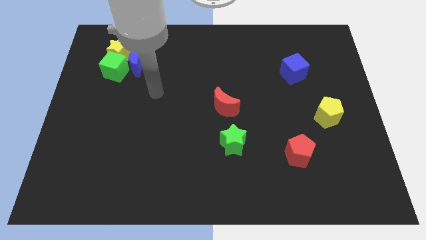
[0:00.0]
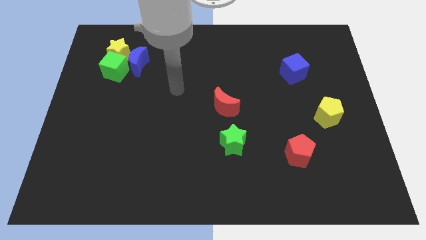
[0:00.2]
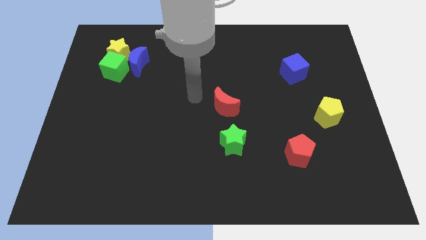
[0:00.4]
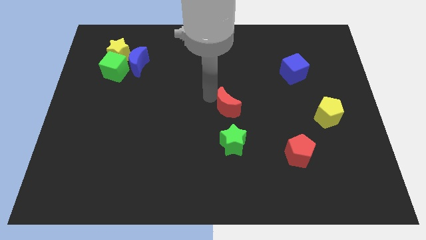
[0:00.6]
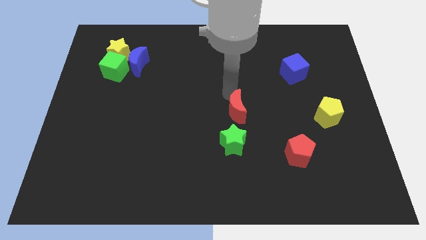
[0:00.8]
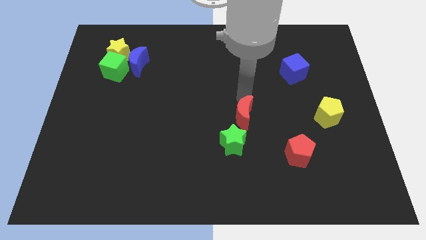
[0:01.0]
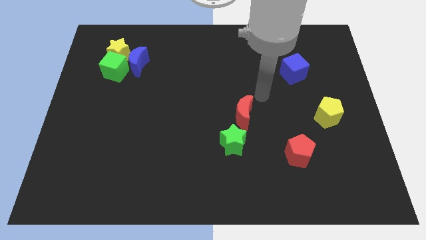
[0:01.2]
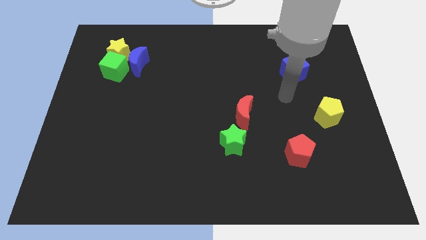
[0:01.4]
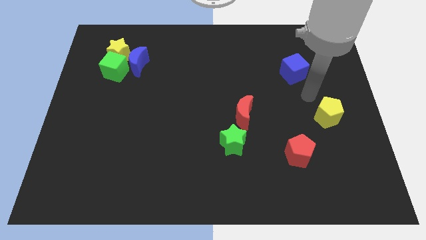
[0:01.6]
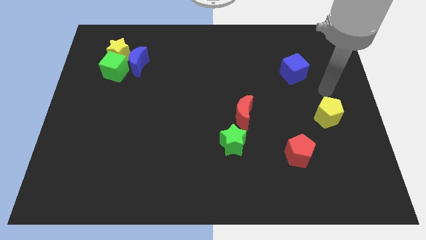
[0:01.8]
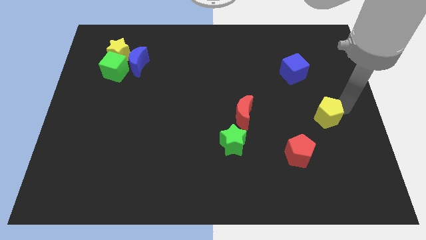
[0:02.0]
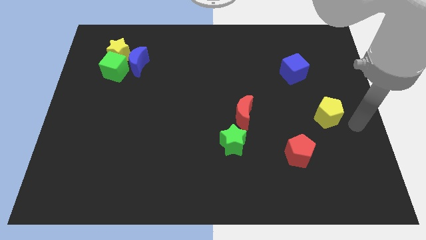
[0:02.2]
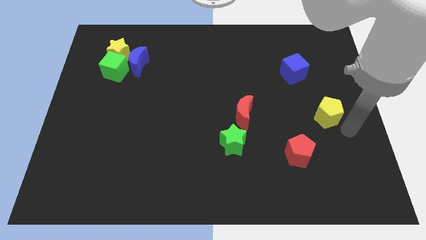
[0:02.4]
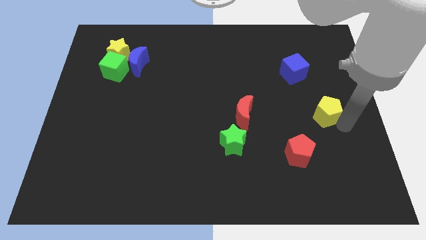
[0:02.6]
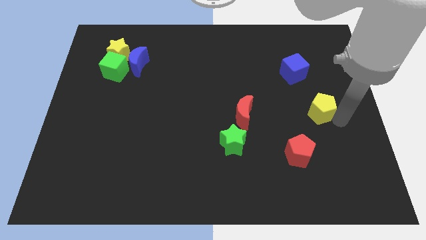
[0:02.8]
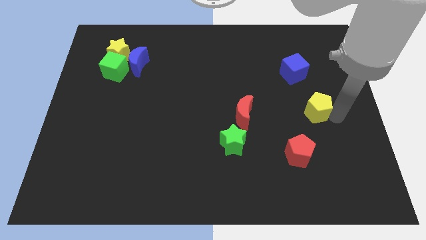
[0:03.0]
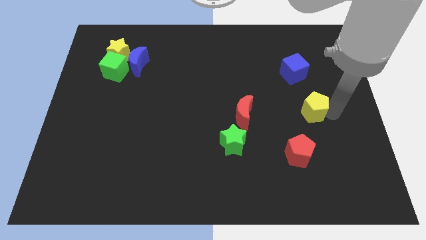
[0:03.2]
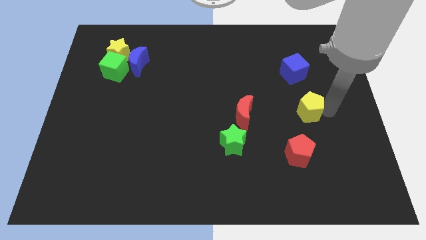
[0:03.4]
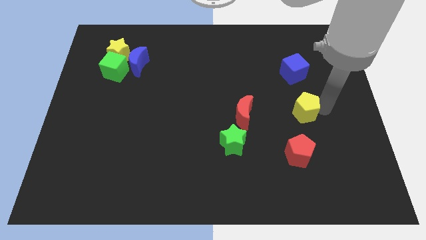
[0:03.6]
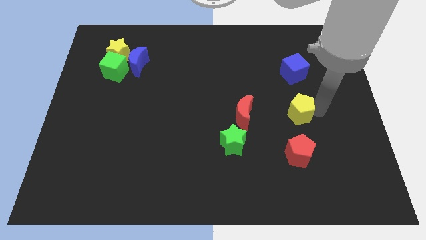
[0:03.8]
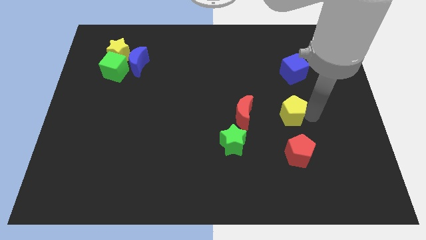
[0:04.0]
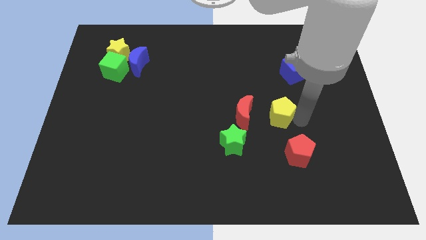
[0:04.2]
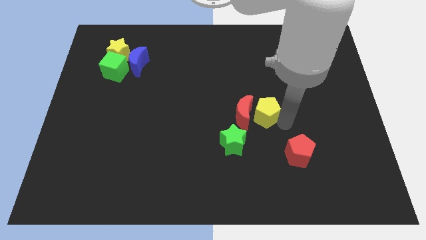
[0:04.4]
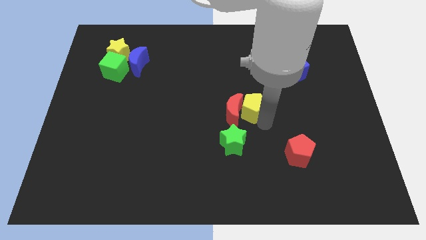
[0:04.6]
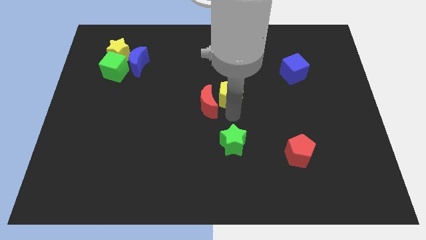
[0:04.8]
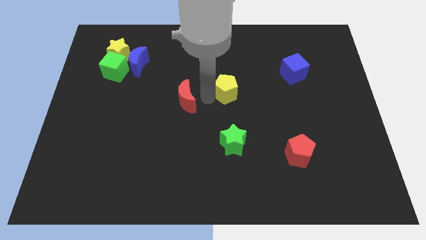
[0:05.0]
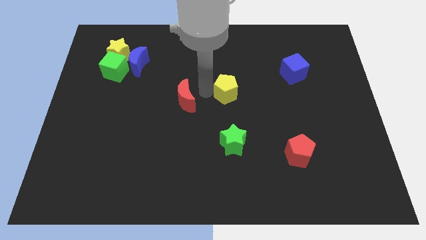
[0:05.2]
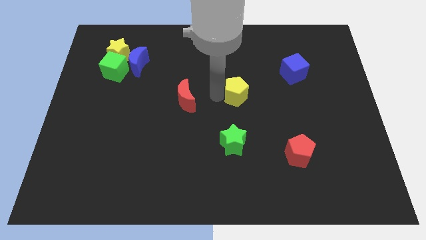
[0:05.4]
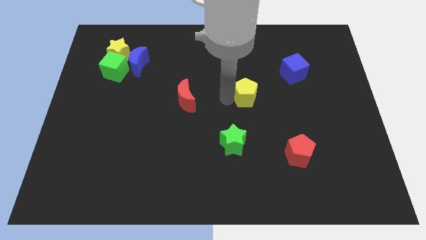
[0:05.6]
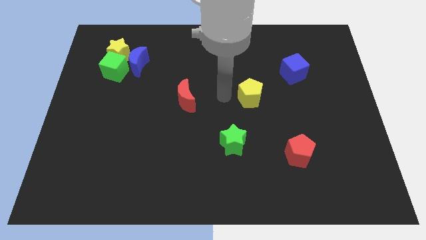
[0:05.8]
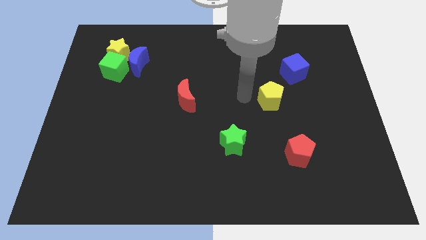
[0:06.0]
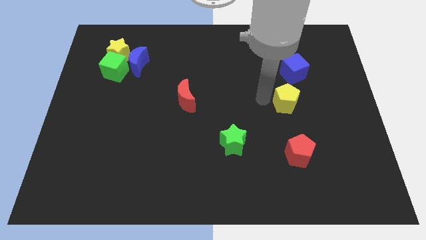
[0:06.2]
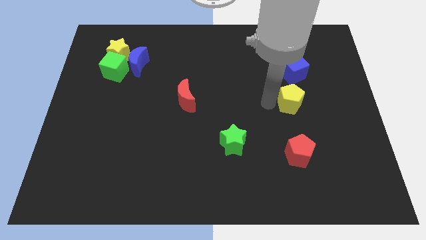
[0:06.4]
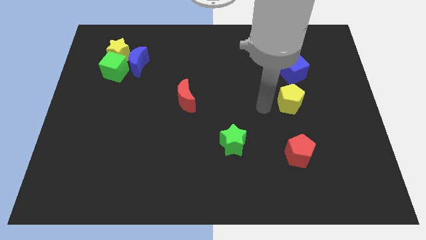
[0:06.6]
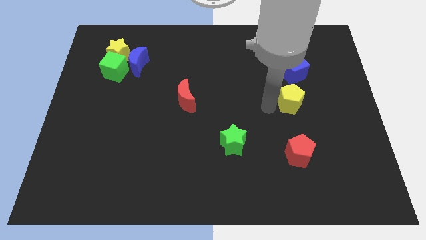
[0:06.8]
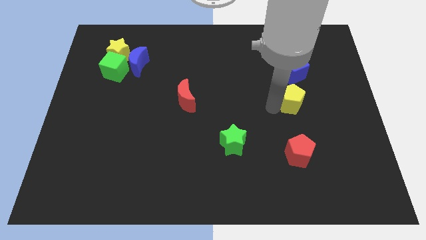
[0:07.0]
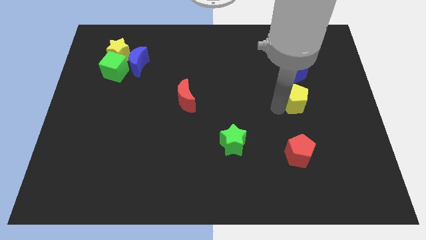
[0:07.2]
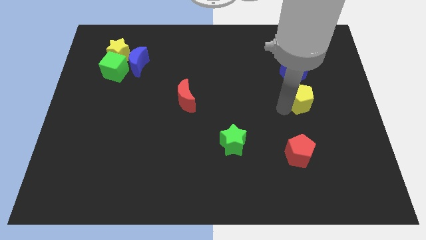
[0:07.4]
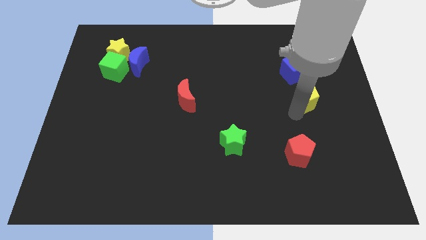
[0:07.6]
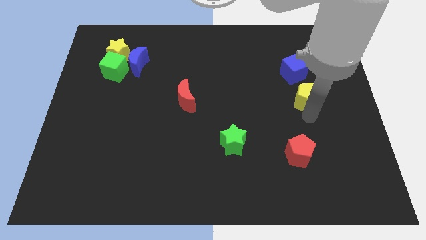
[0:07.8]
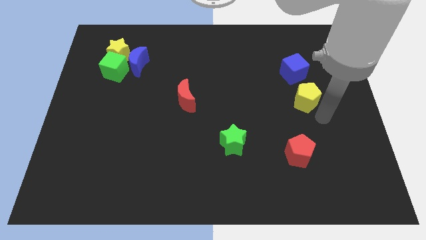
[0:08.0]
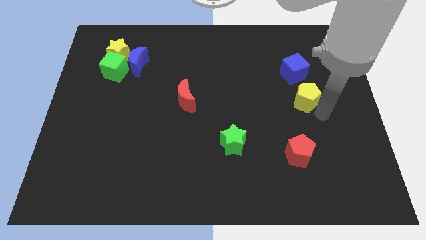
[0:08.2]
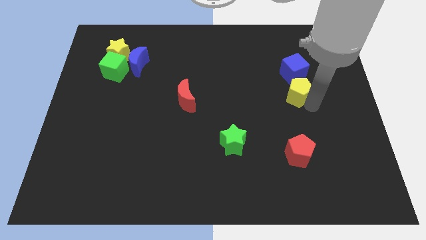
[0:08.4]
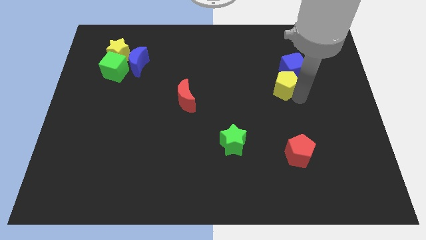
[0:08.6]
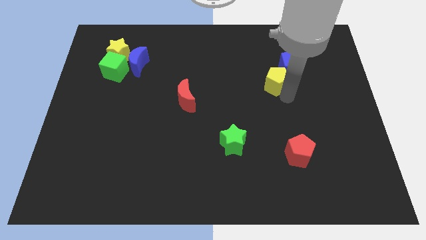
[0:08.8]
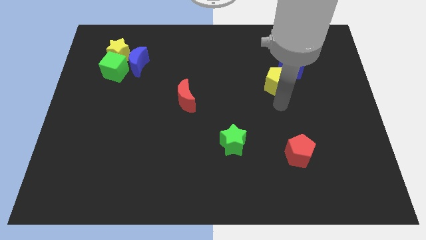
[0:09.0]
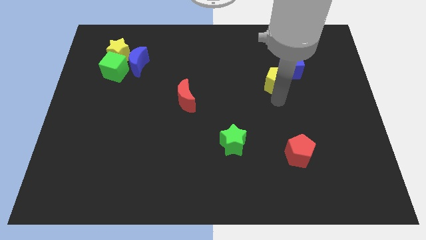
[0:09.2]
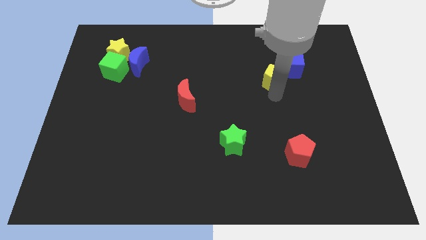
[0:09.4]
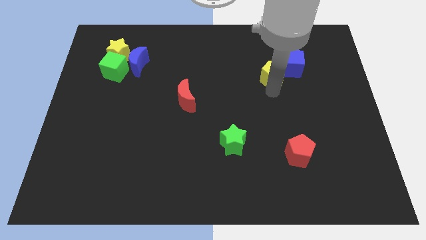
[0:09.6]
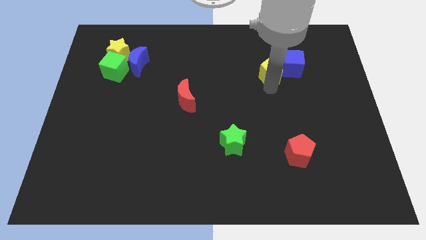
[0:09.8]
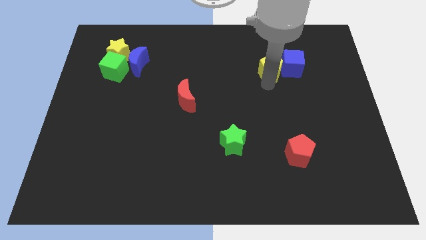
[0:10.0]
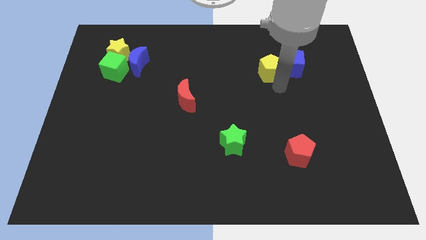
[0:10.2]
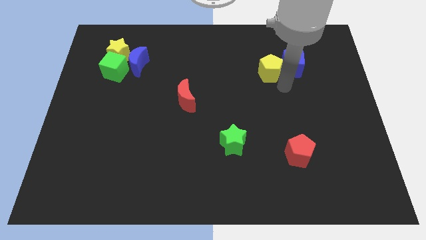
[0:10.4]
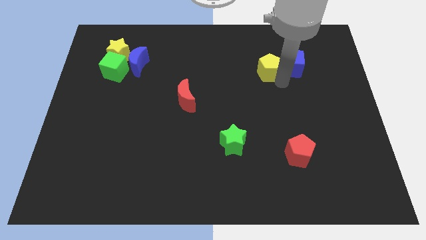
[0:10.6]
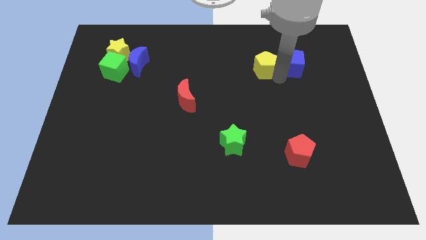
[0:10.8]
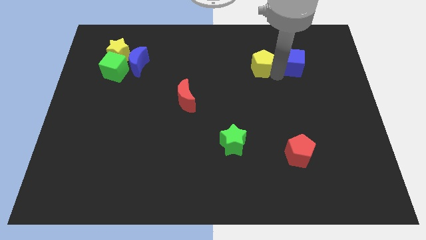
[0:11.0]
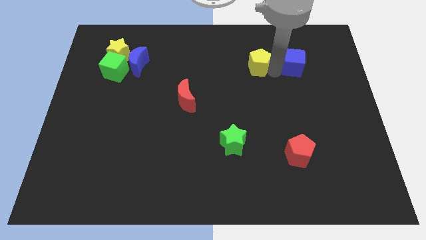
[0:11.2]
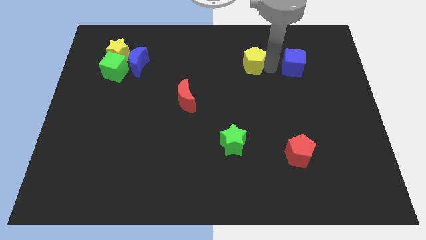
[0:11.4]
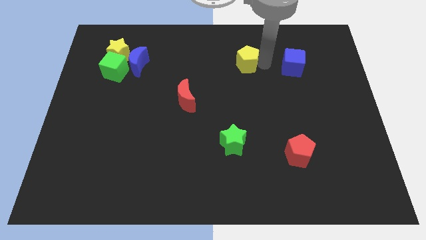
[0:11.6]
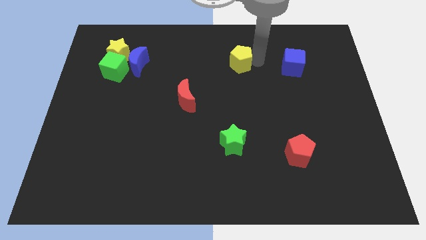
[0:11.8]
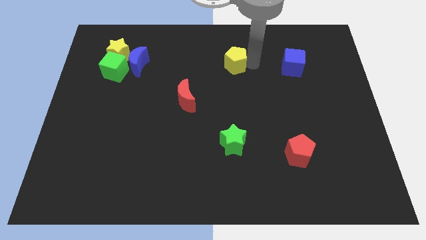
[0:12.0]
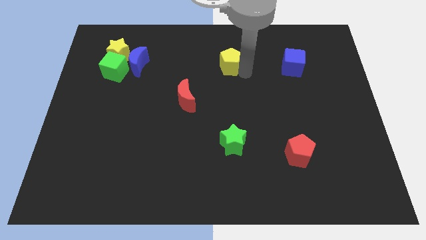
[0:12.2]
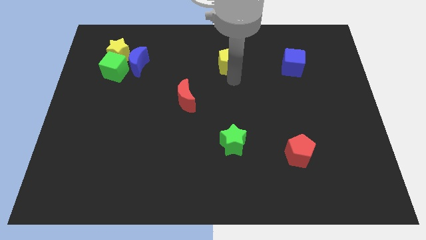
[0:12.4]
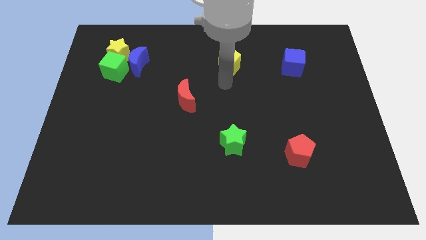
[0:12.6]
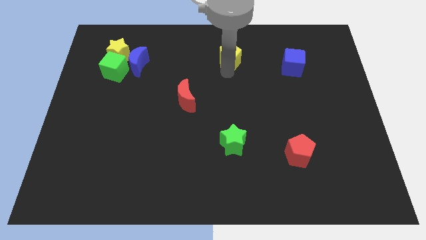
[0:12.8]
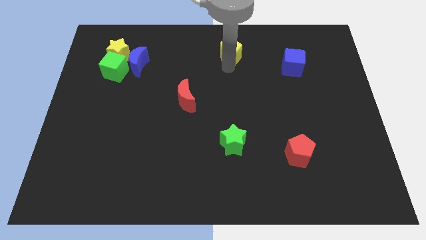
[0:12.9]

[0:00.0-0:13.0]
slide the yellow pentagon to the top
